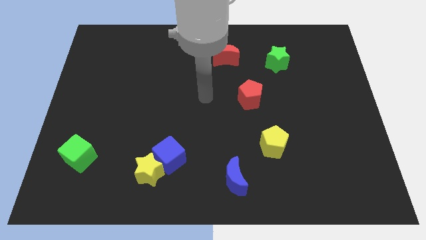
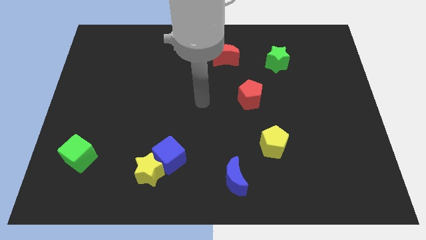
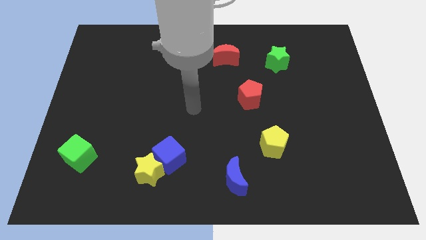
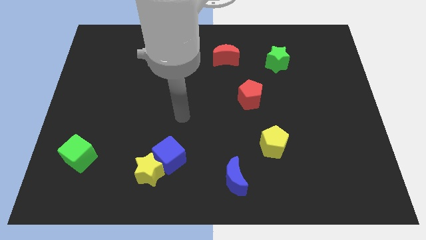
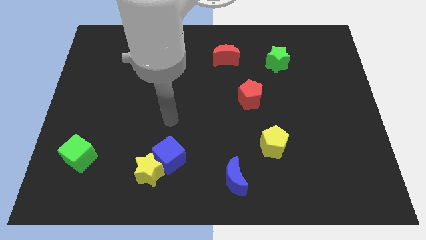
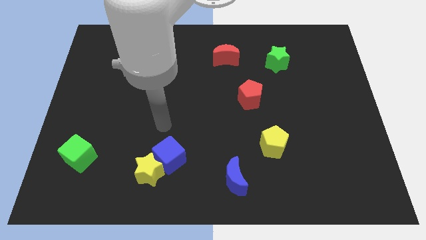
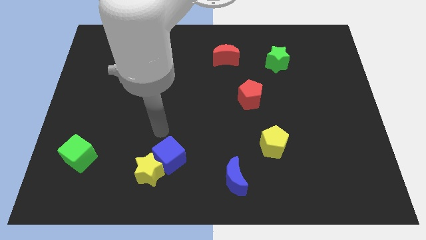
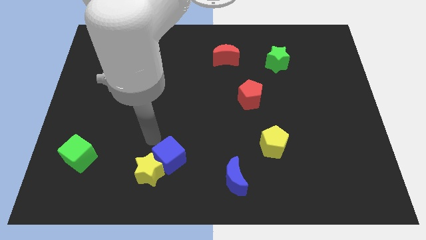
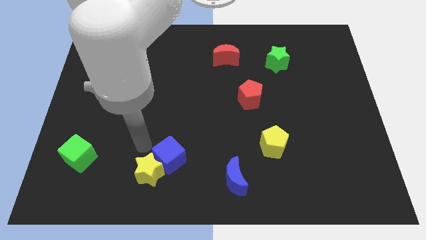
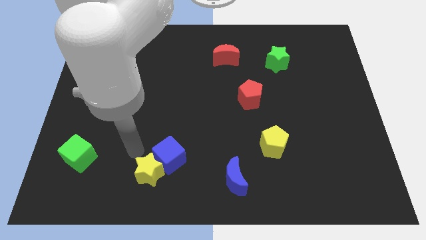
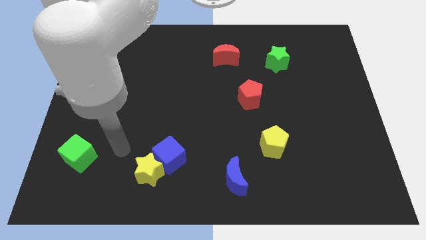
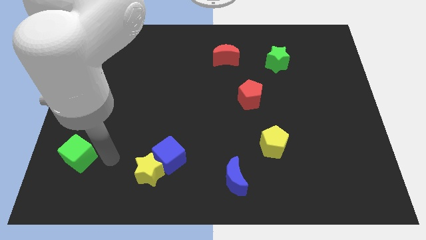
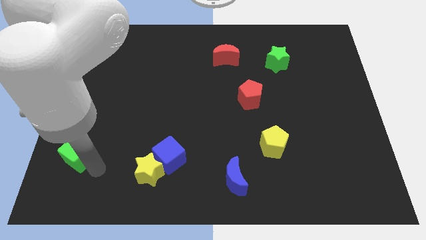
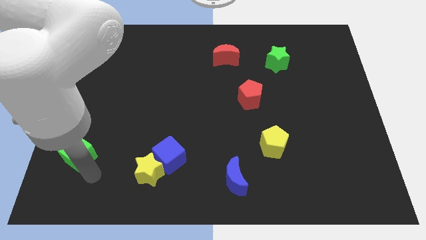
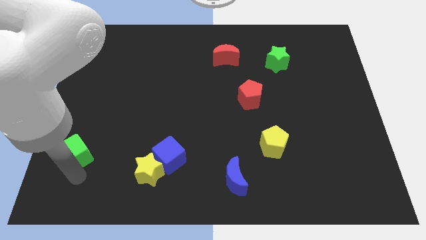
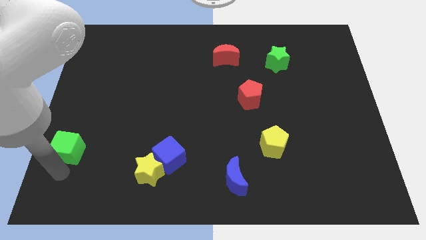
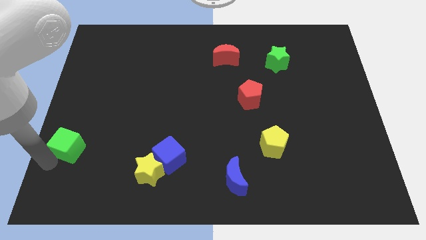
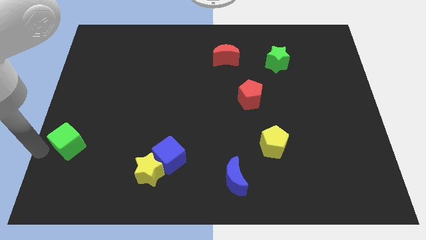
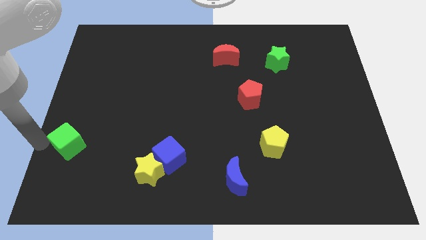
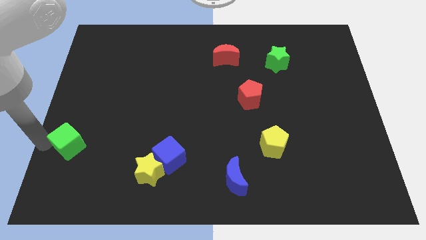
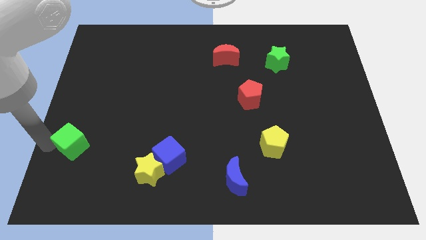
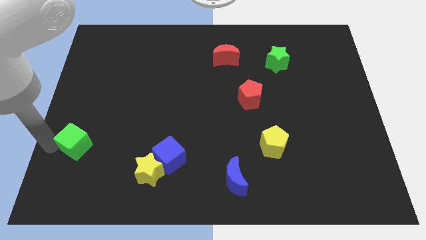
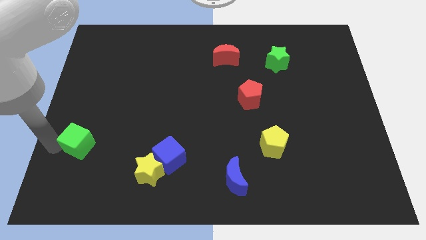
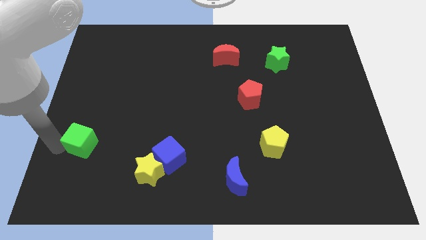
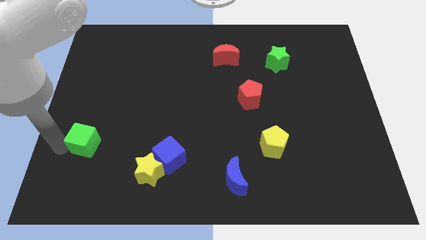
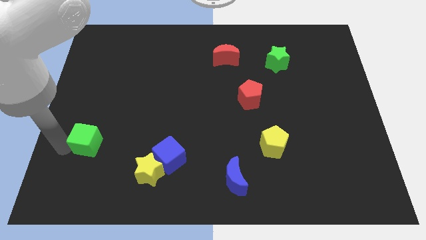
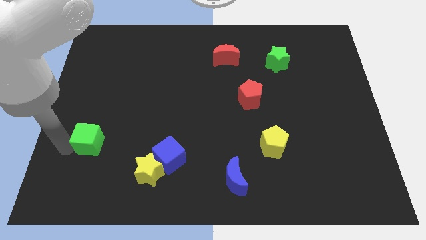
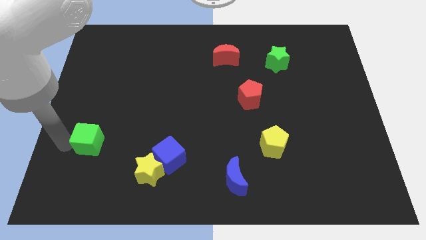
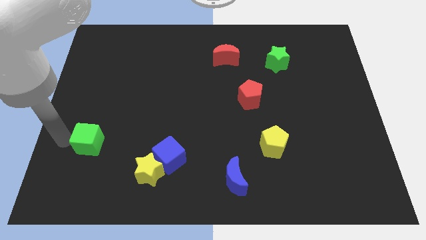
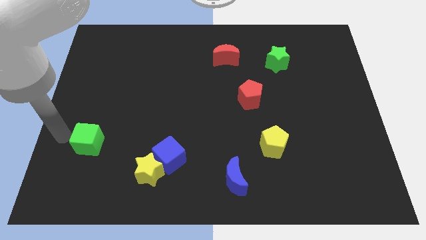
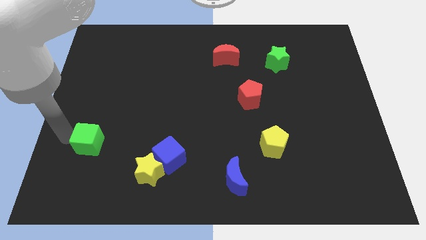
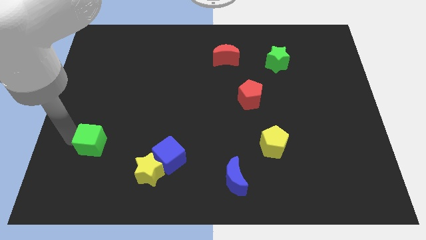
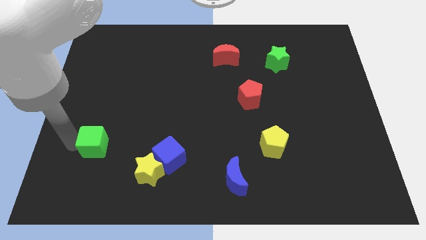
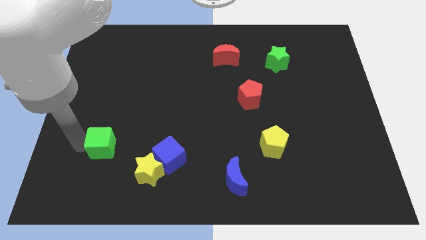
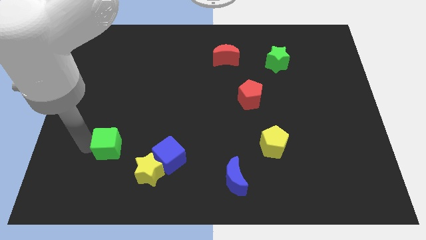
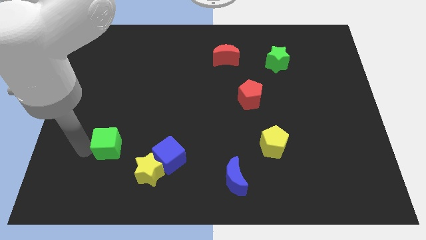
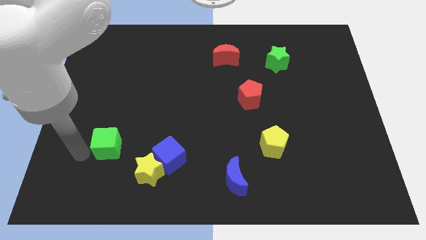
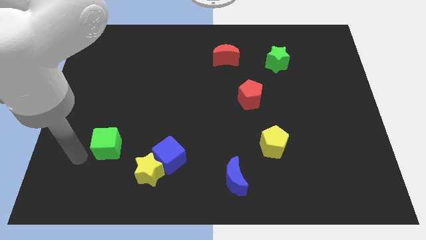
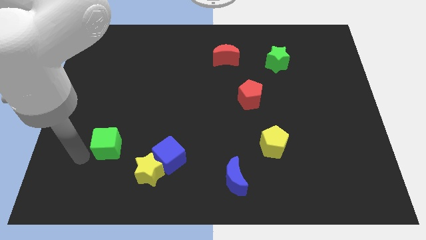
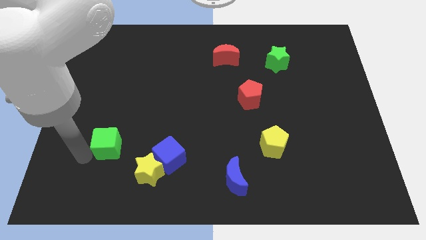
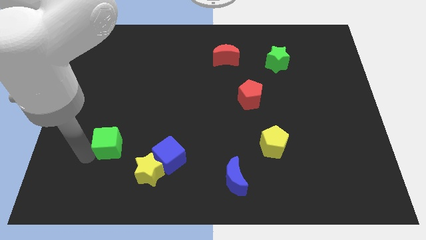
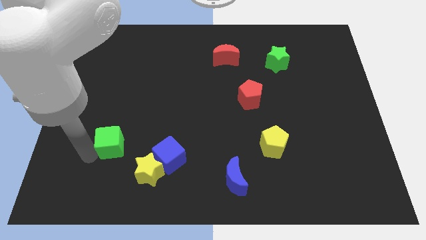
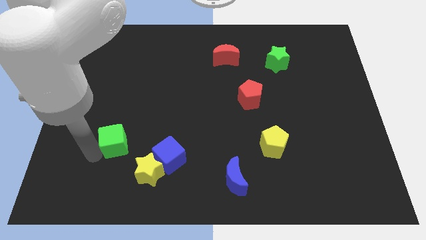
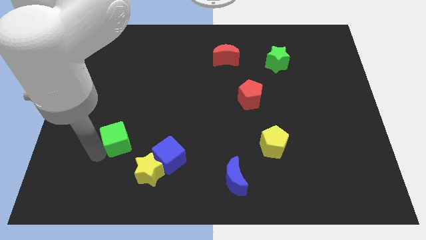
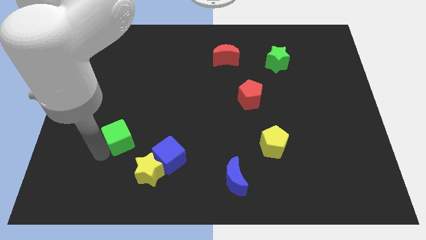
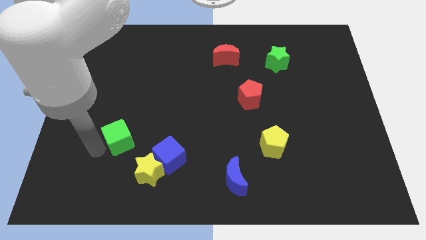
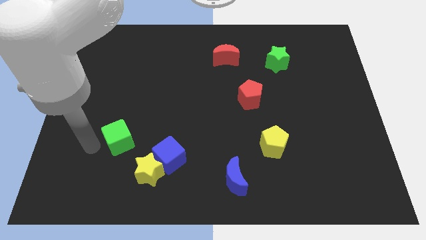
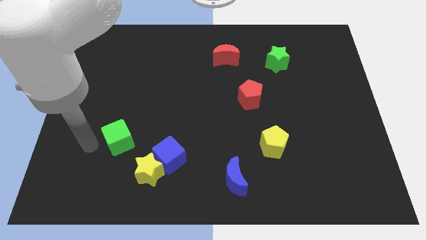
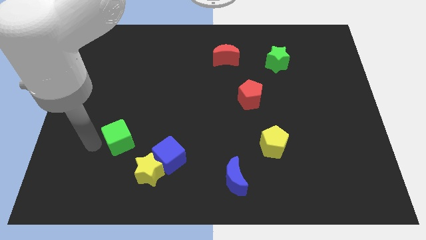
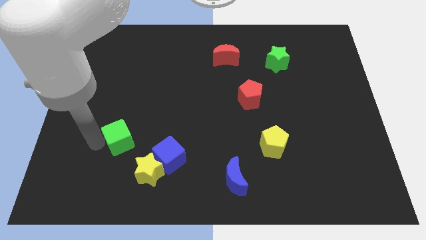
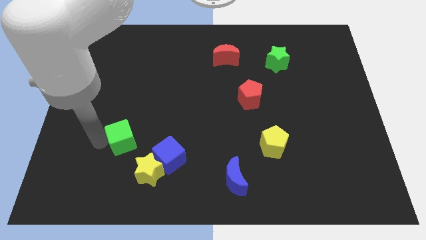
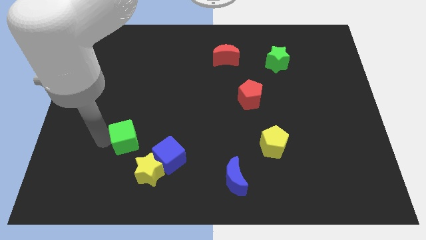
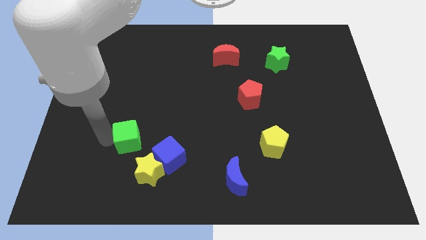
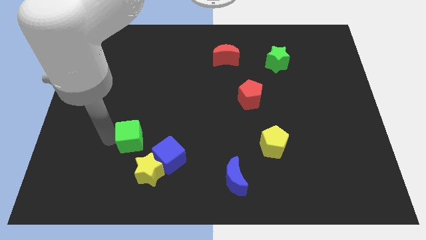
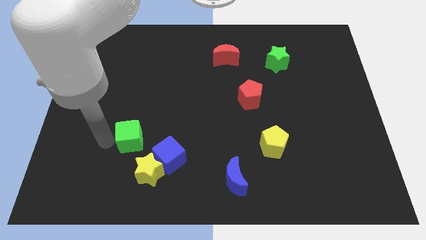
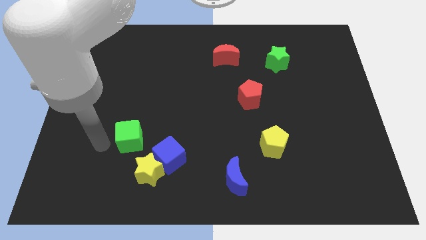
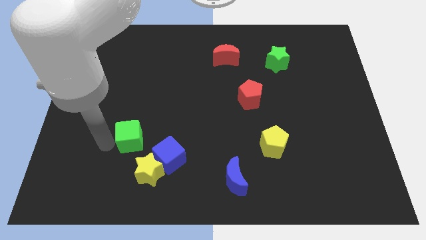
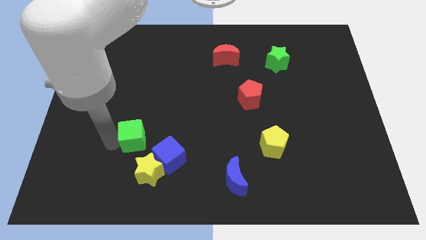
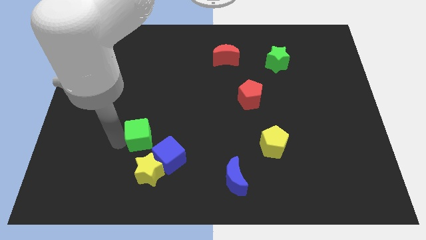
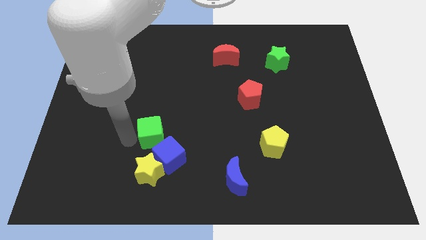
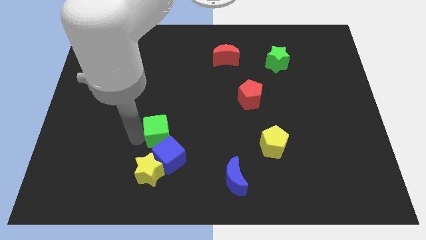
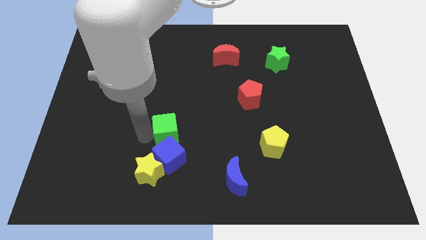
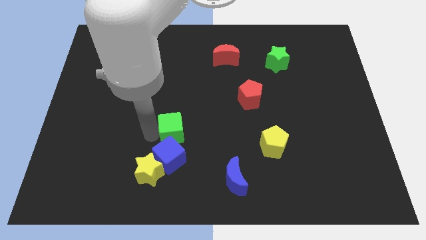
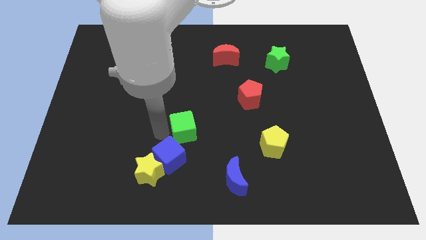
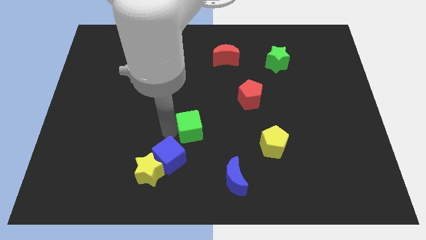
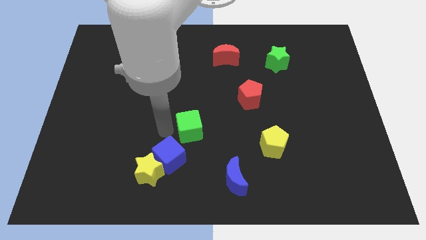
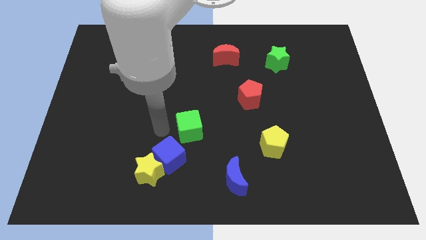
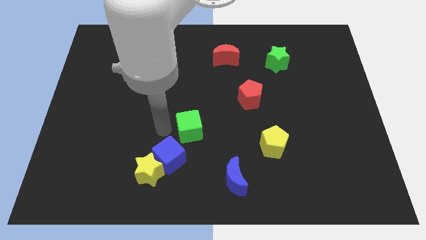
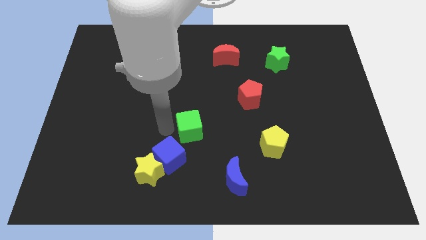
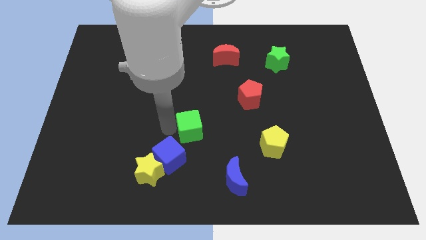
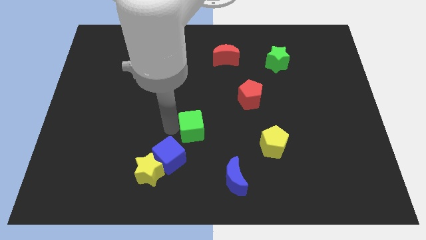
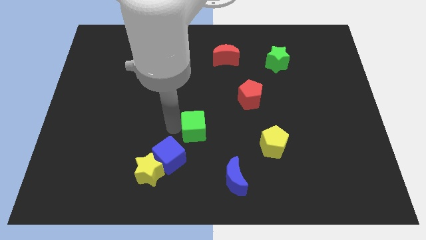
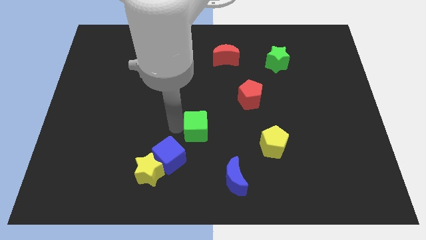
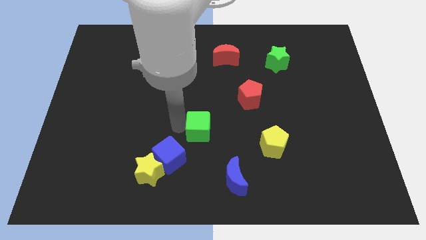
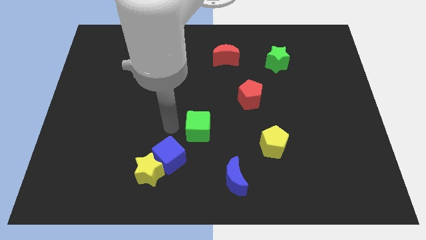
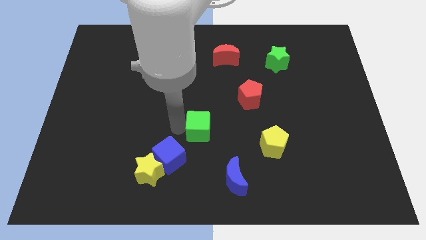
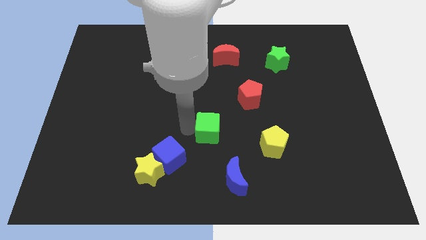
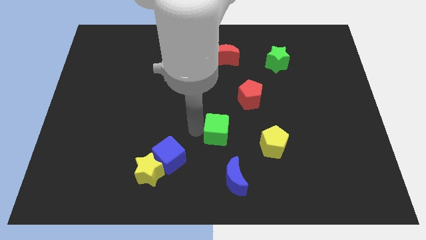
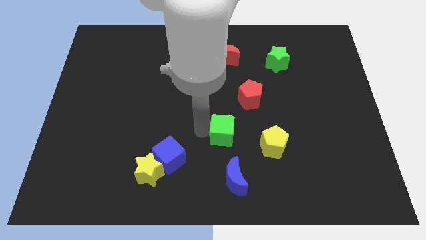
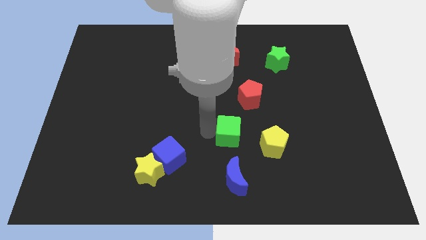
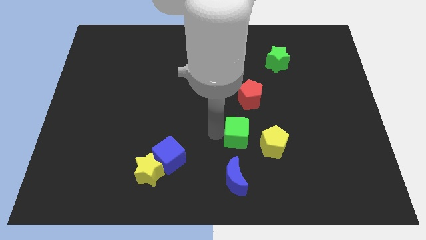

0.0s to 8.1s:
push the green cube below the red pentagon
